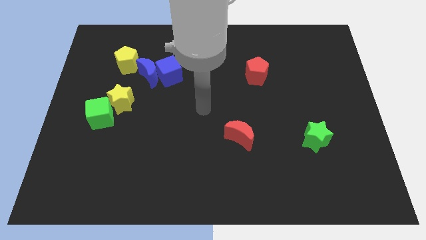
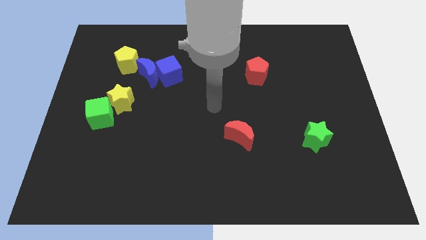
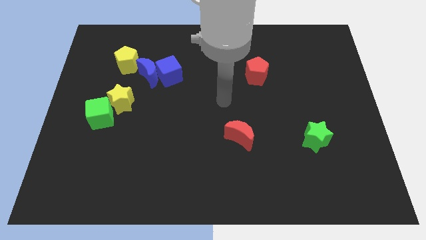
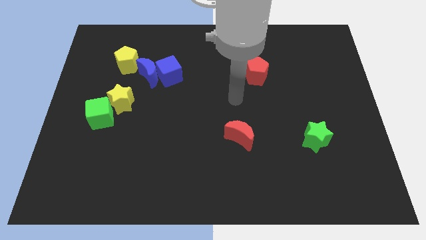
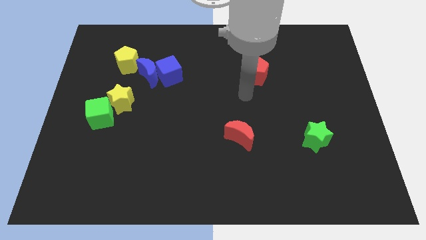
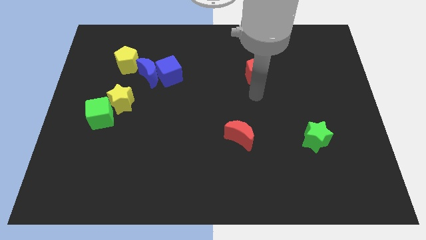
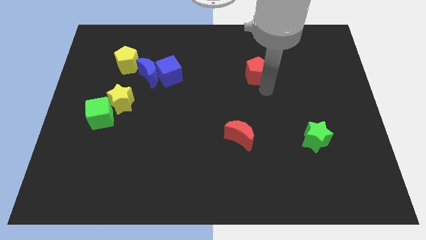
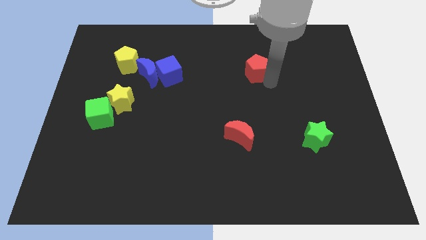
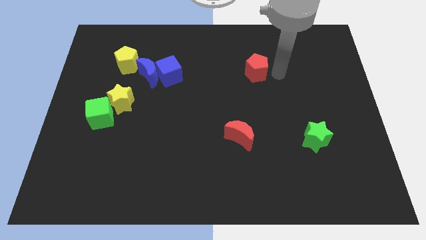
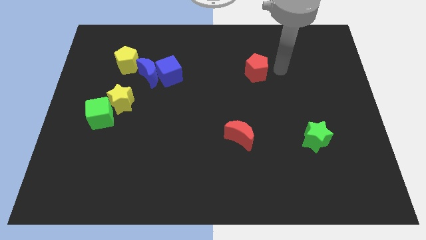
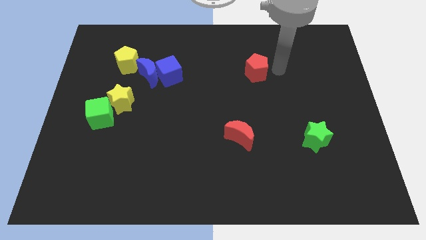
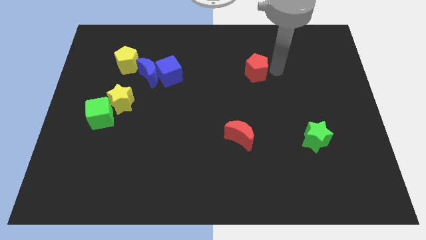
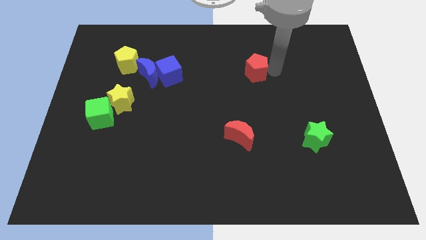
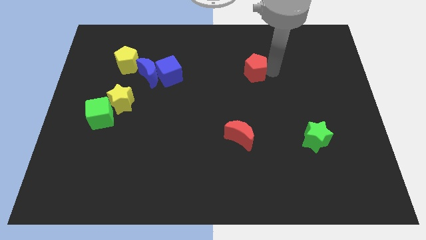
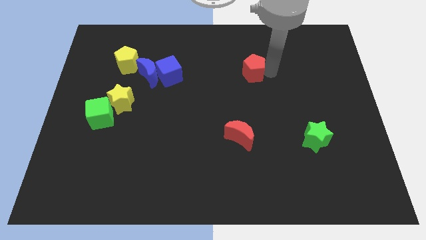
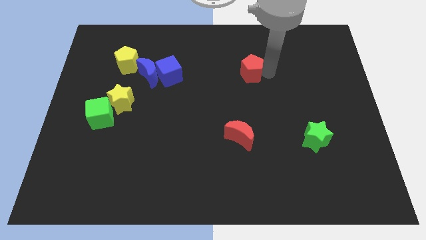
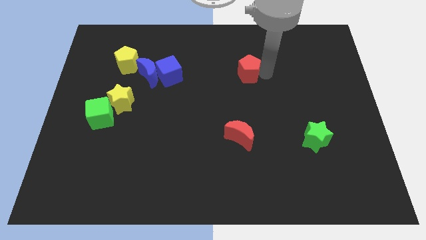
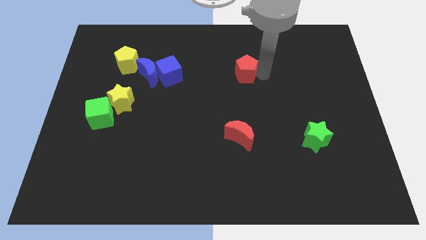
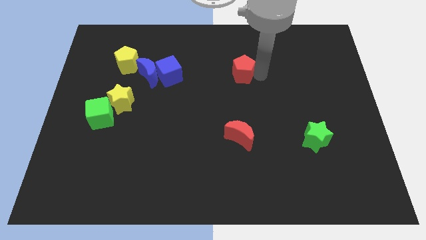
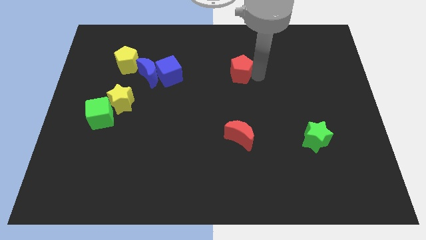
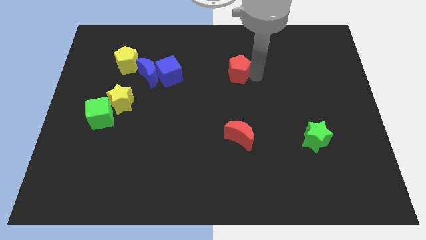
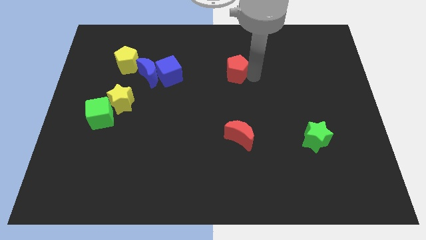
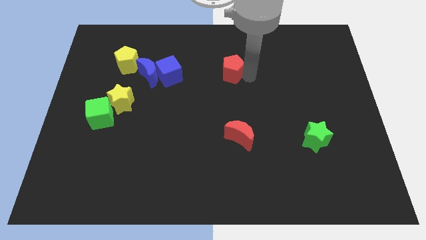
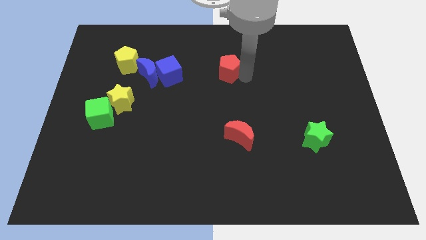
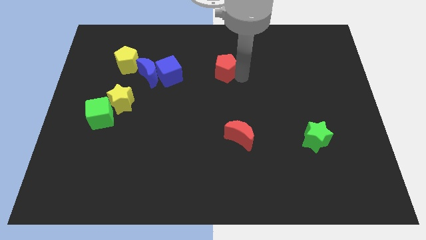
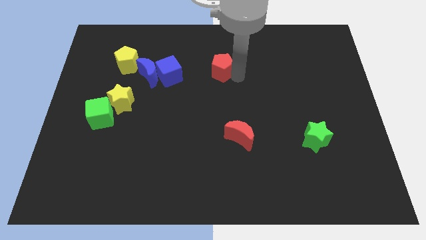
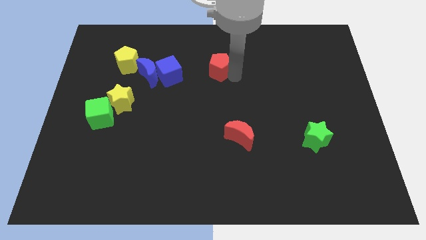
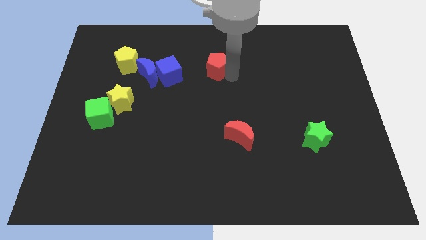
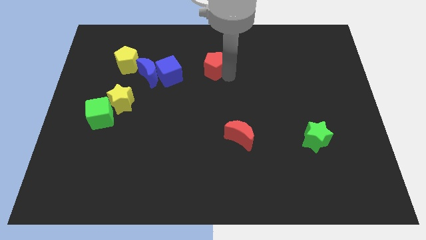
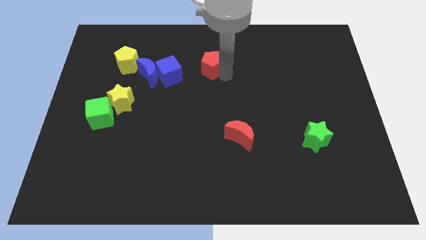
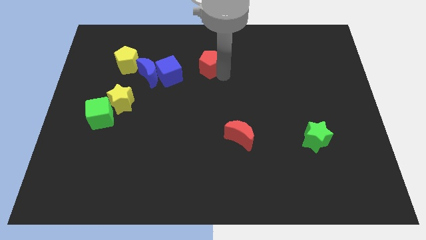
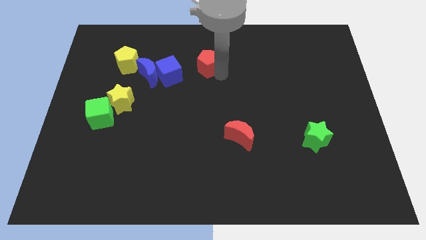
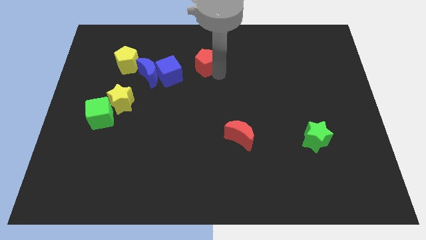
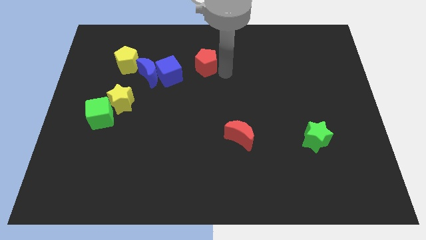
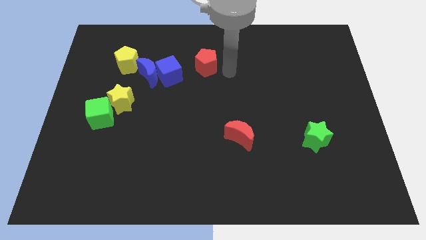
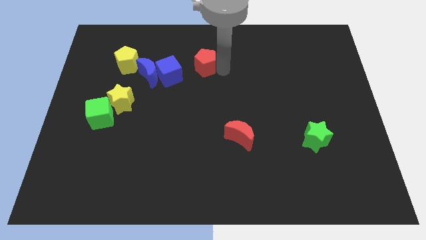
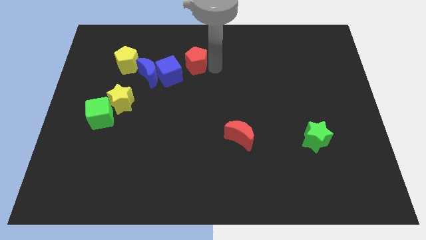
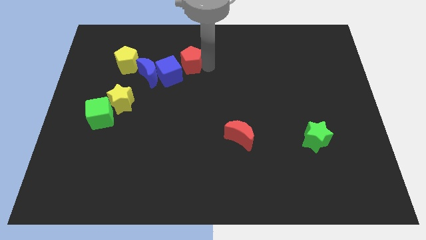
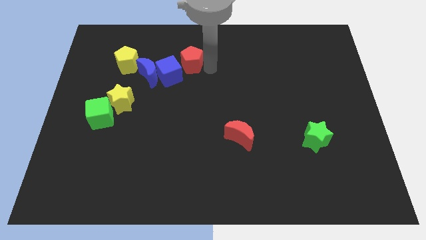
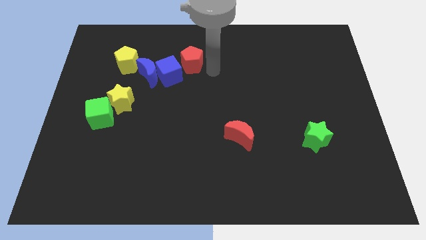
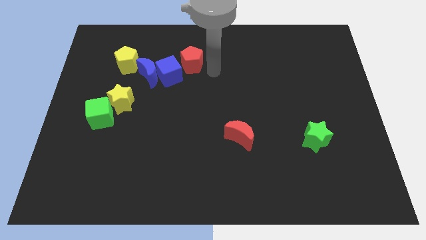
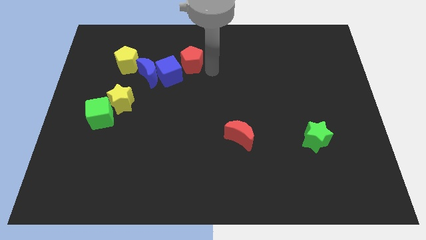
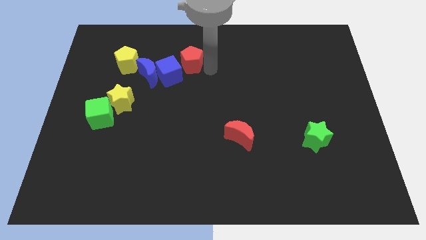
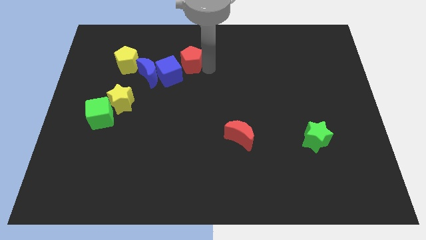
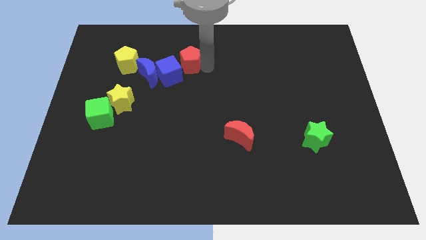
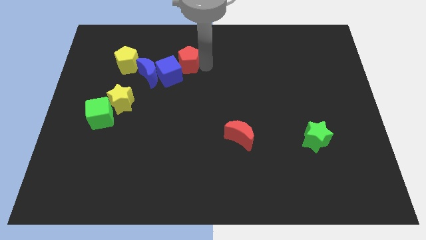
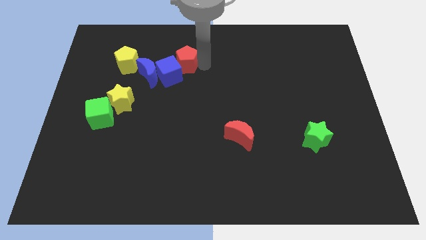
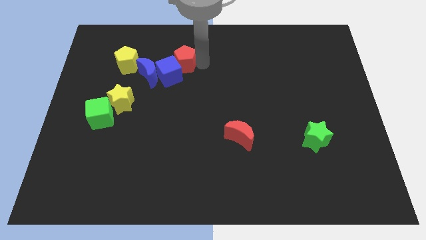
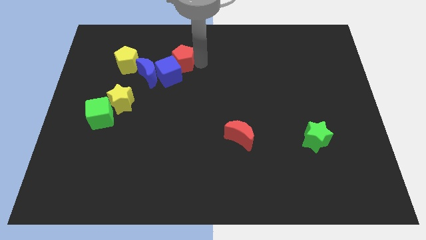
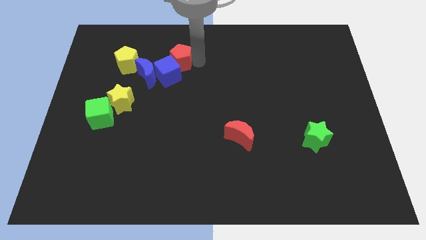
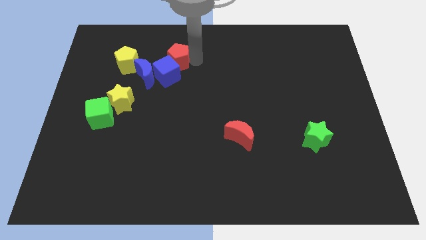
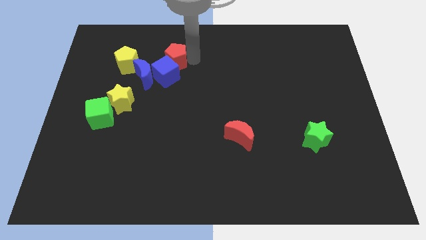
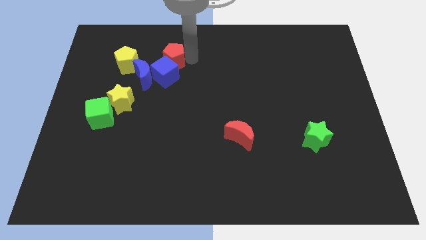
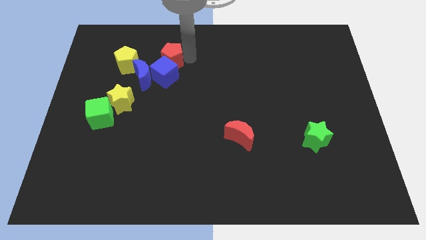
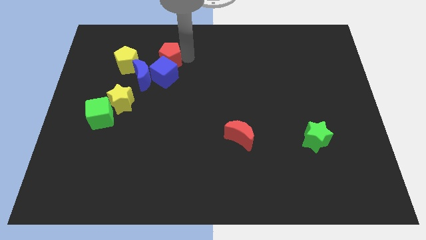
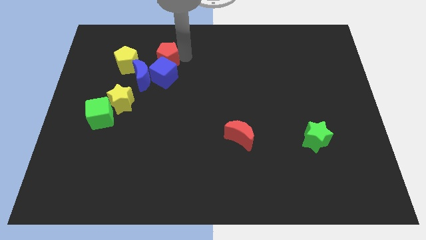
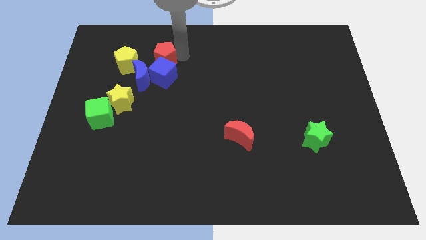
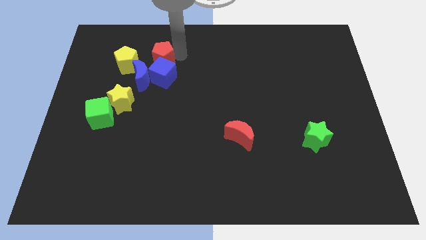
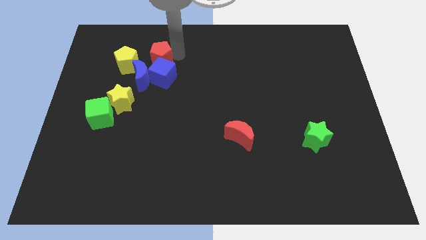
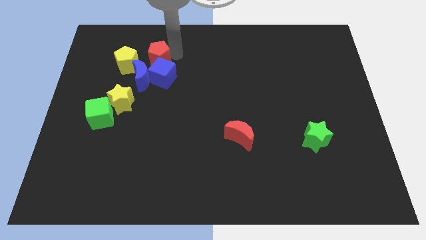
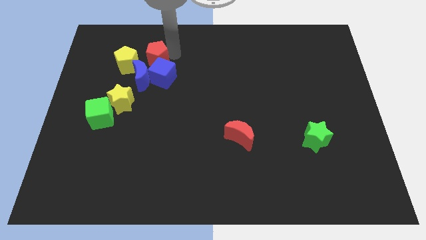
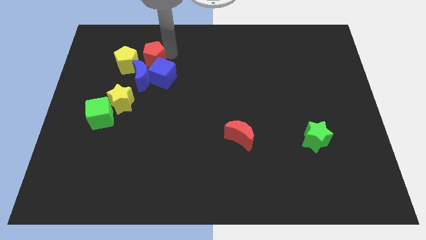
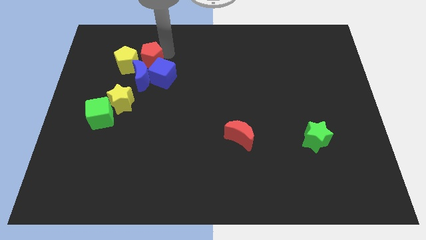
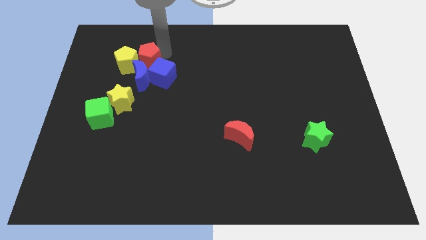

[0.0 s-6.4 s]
move the red pentagon to the yellow pentagon
